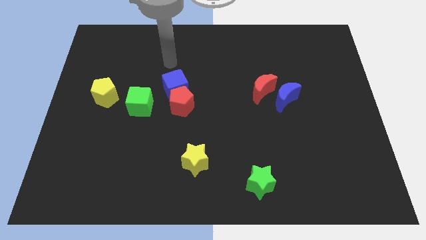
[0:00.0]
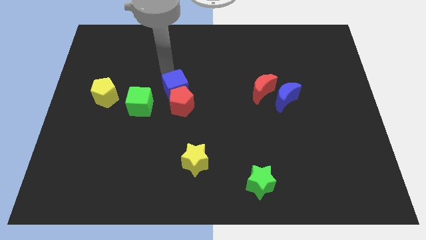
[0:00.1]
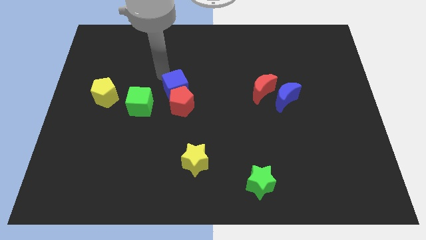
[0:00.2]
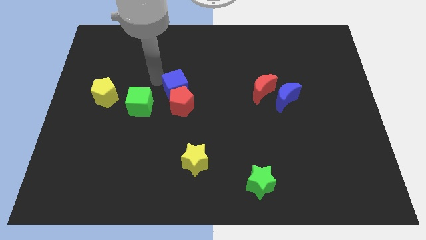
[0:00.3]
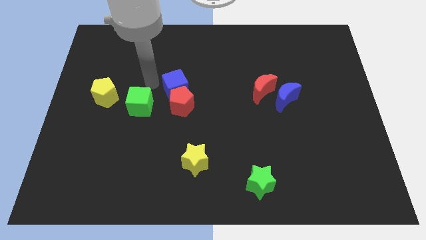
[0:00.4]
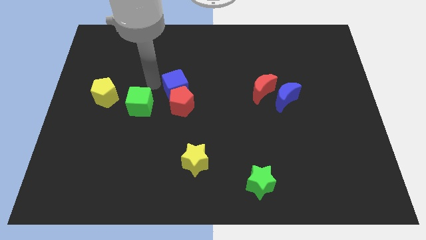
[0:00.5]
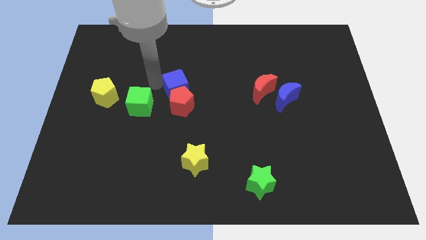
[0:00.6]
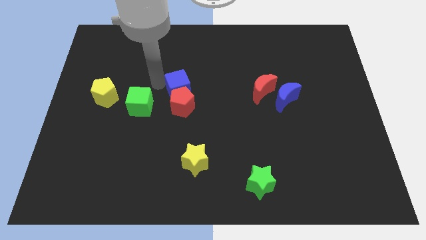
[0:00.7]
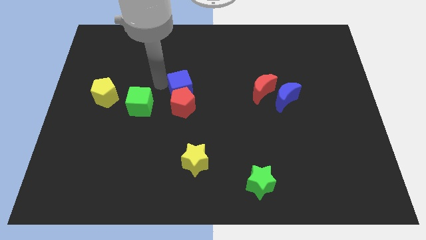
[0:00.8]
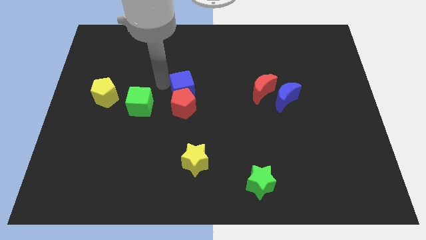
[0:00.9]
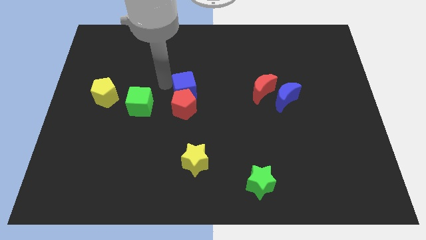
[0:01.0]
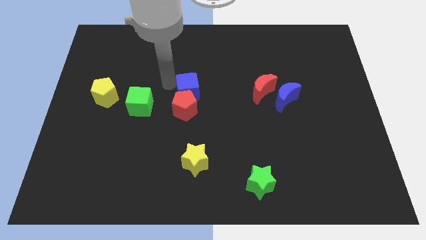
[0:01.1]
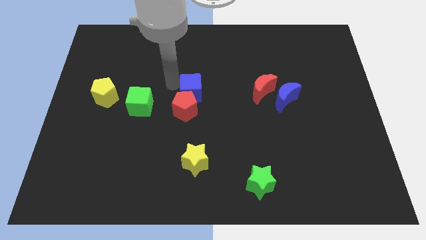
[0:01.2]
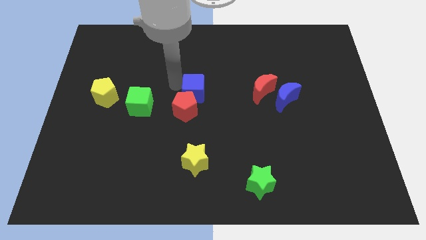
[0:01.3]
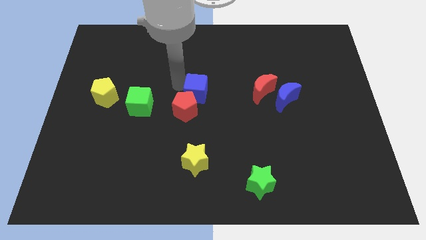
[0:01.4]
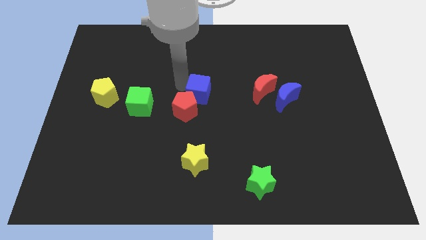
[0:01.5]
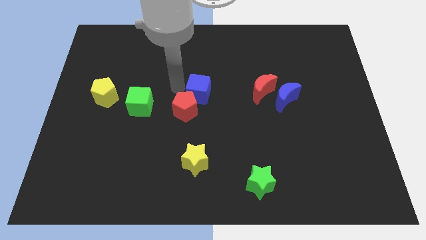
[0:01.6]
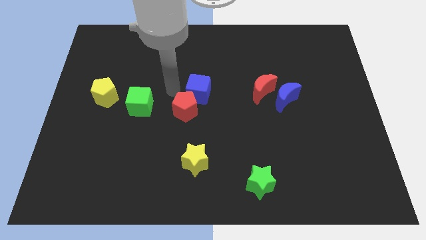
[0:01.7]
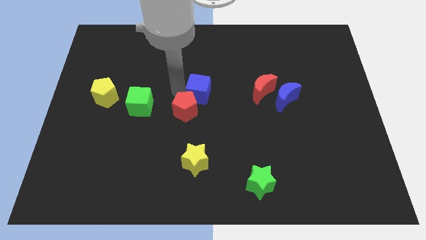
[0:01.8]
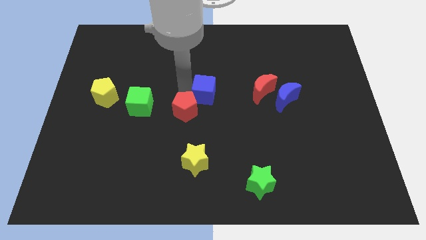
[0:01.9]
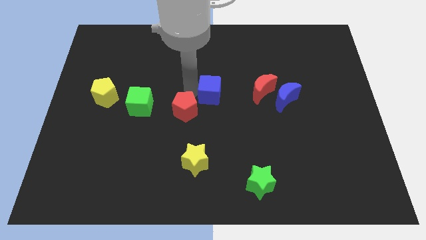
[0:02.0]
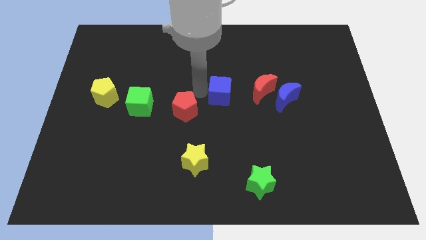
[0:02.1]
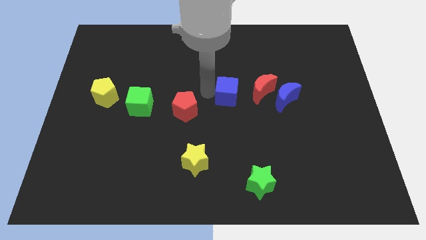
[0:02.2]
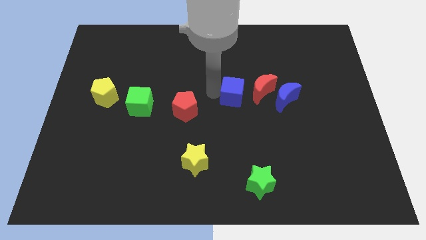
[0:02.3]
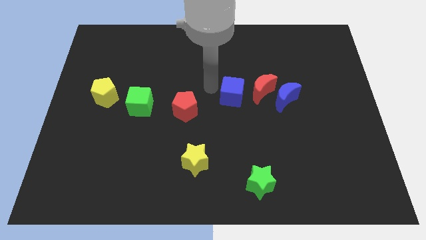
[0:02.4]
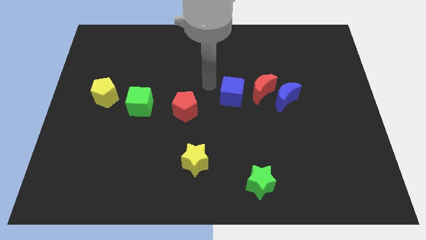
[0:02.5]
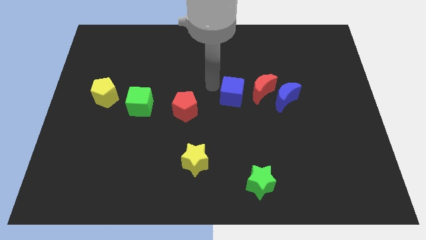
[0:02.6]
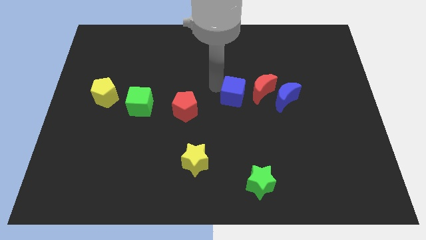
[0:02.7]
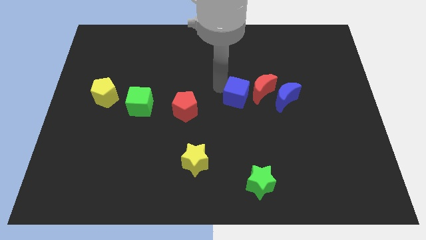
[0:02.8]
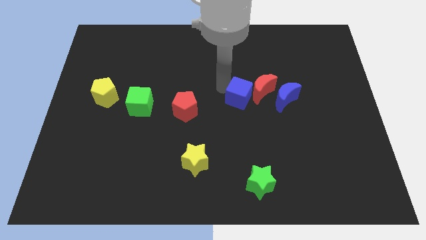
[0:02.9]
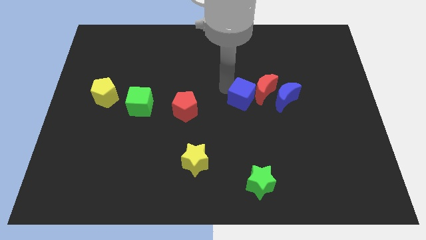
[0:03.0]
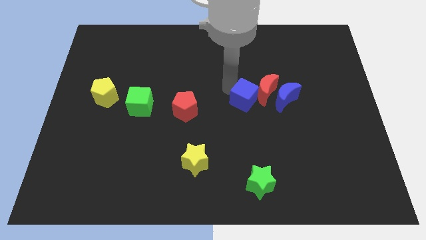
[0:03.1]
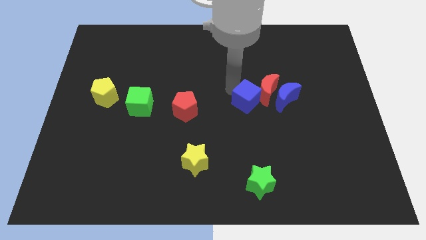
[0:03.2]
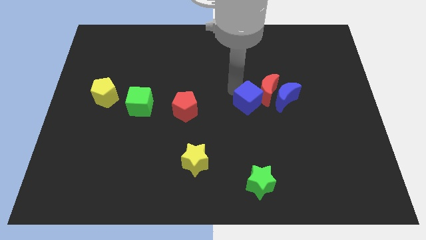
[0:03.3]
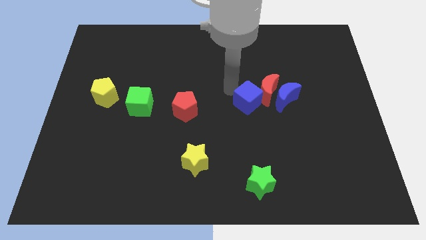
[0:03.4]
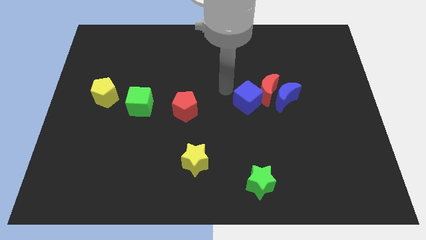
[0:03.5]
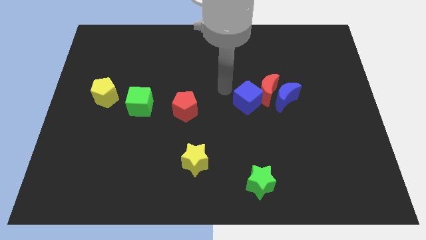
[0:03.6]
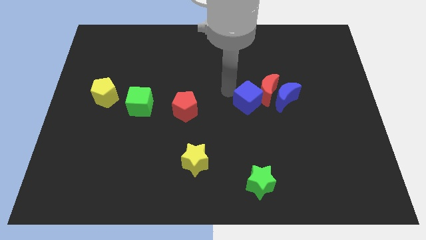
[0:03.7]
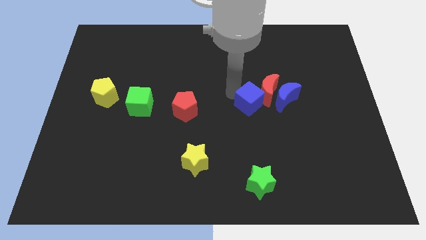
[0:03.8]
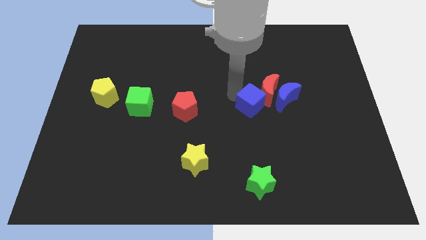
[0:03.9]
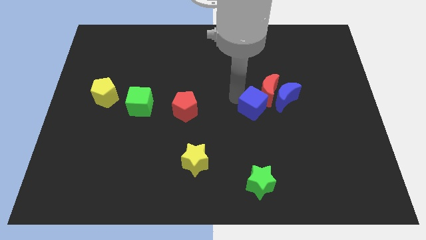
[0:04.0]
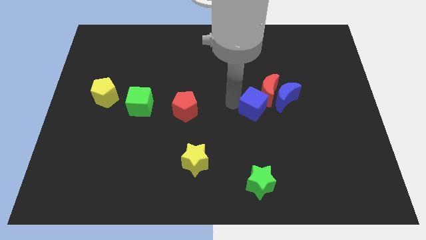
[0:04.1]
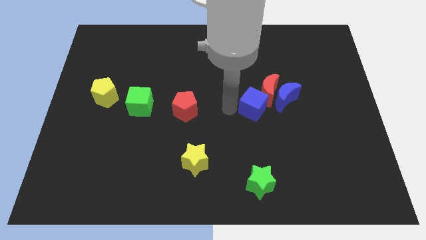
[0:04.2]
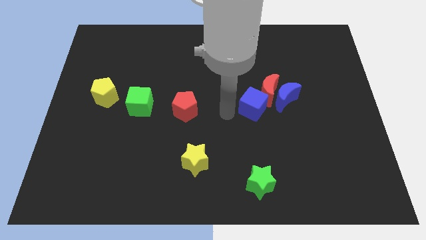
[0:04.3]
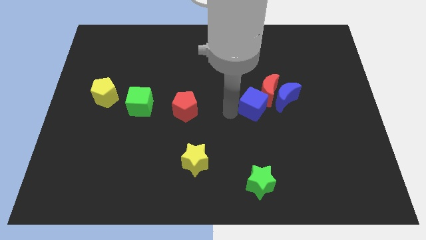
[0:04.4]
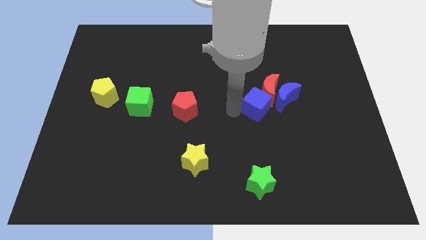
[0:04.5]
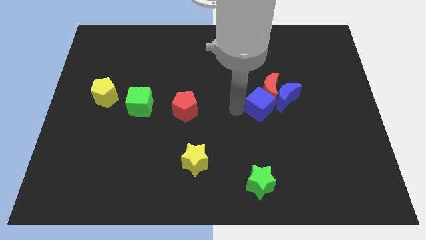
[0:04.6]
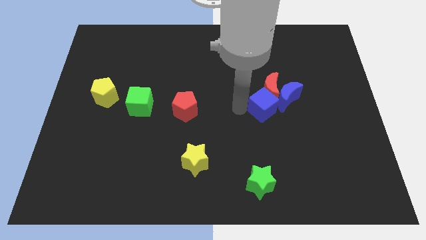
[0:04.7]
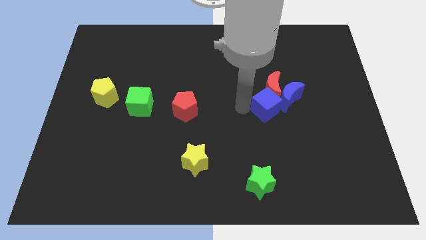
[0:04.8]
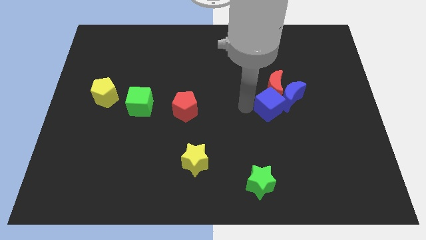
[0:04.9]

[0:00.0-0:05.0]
slide the blue cube towards the blue moon

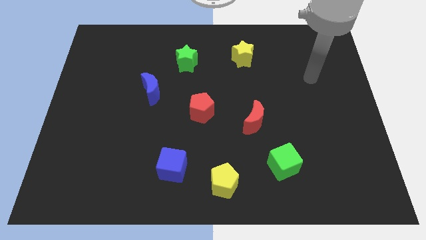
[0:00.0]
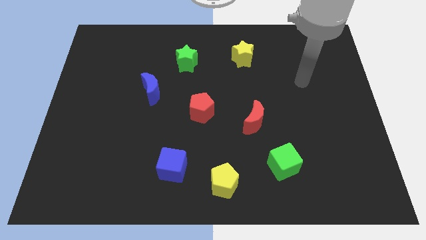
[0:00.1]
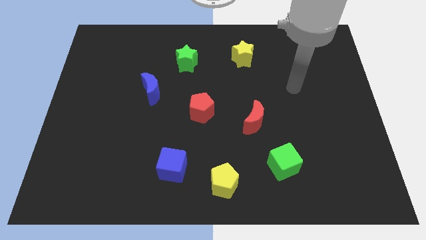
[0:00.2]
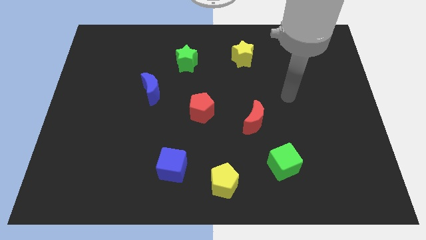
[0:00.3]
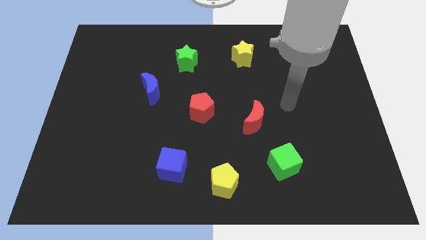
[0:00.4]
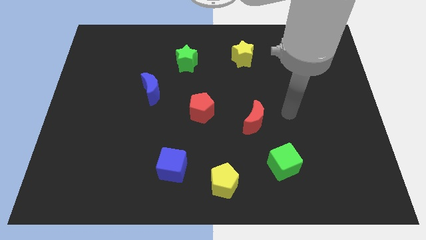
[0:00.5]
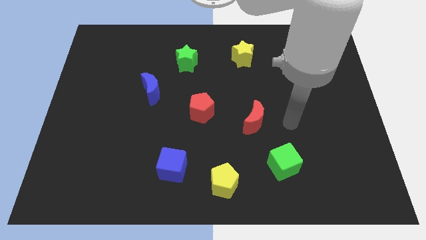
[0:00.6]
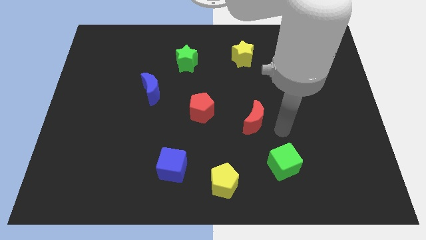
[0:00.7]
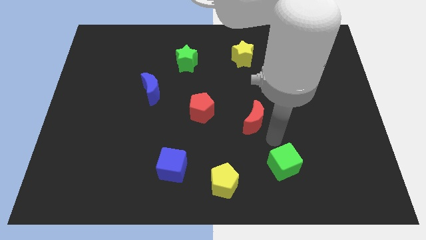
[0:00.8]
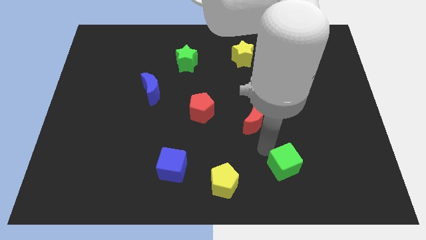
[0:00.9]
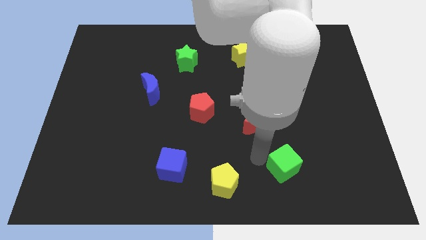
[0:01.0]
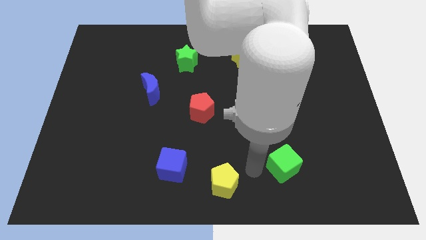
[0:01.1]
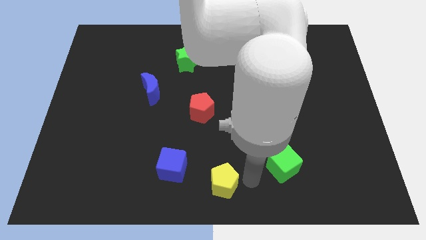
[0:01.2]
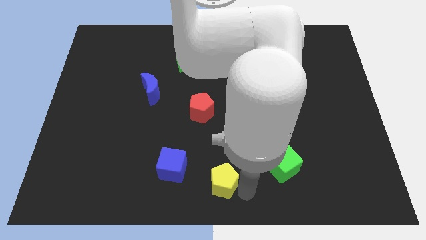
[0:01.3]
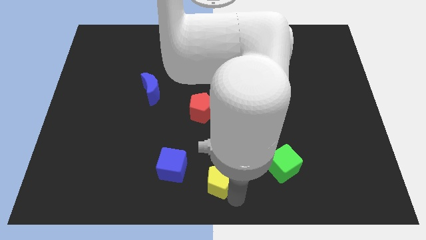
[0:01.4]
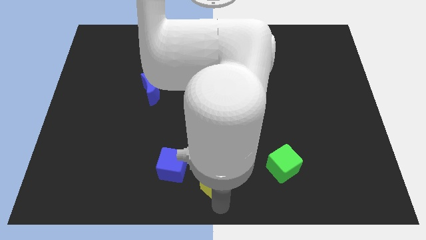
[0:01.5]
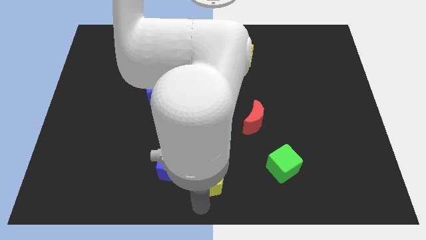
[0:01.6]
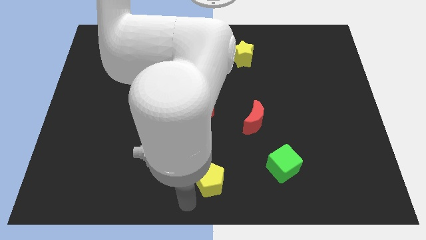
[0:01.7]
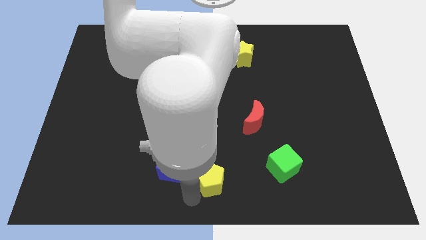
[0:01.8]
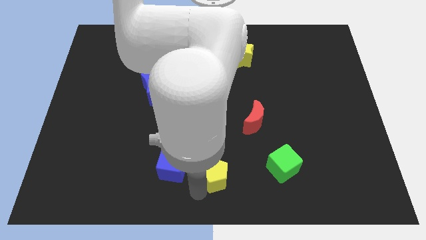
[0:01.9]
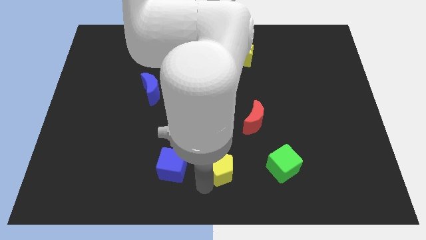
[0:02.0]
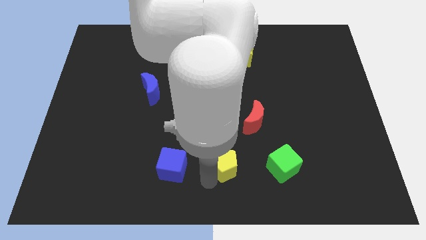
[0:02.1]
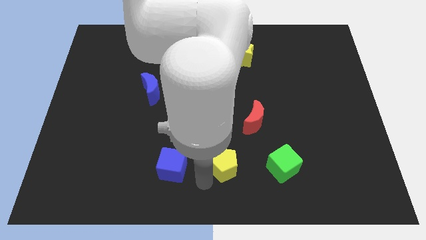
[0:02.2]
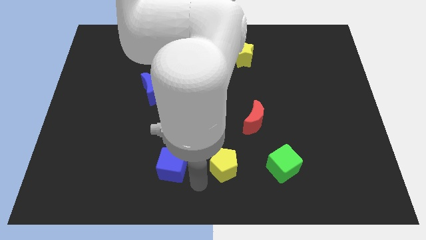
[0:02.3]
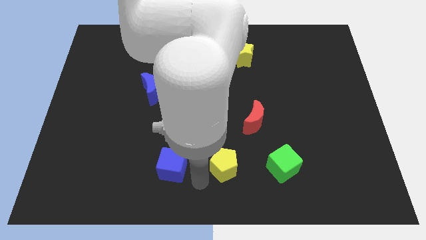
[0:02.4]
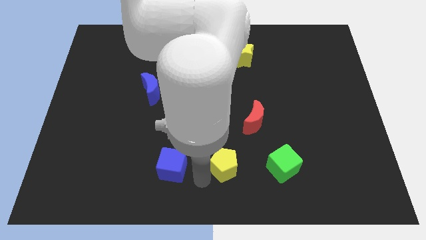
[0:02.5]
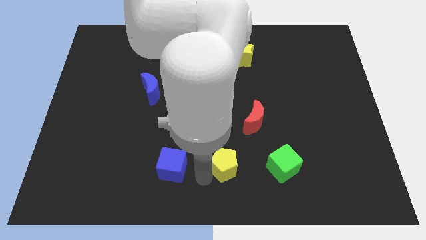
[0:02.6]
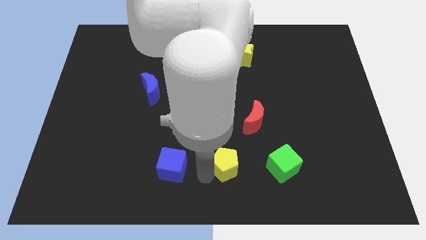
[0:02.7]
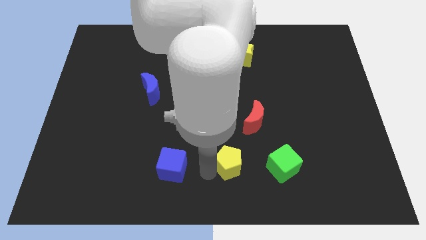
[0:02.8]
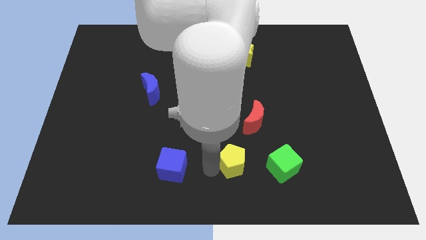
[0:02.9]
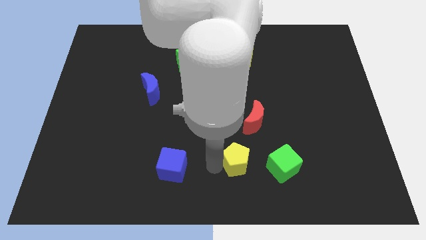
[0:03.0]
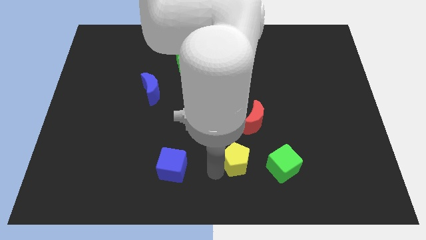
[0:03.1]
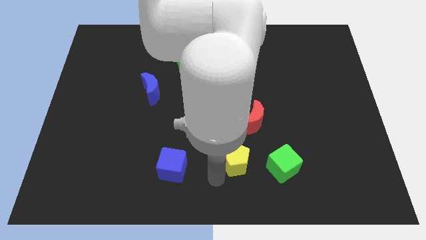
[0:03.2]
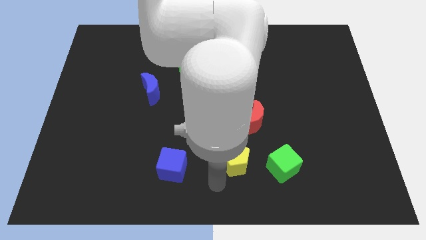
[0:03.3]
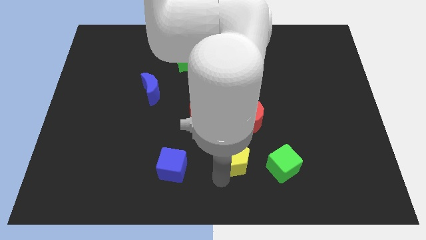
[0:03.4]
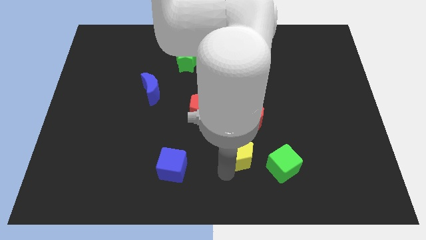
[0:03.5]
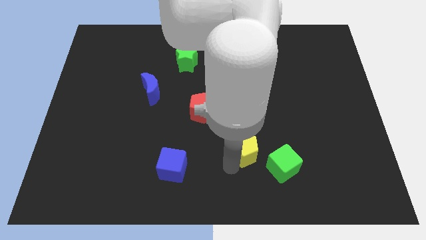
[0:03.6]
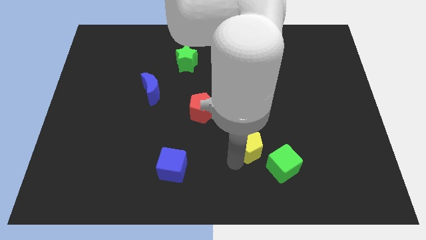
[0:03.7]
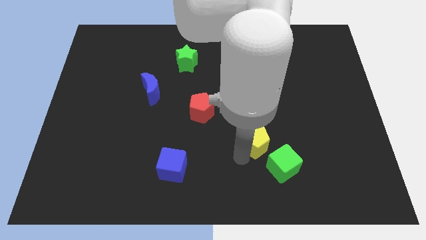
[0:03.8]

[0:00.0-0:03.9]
move the yellow pentagon to the red moon
